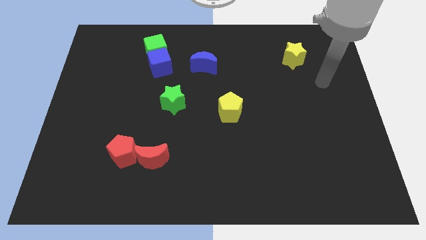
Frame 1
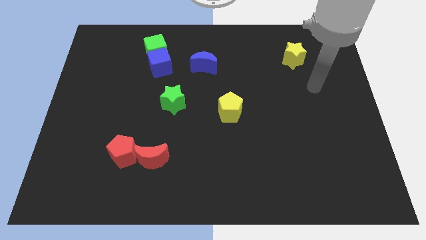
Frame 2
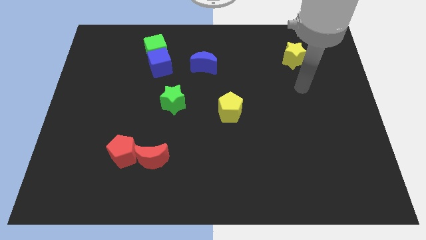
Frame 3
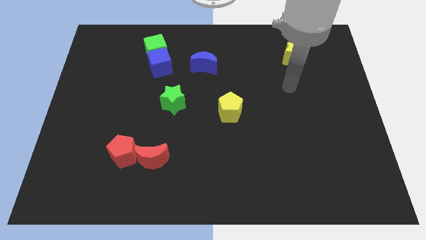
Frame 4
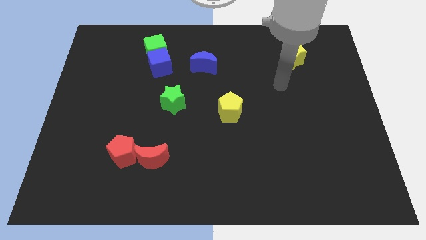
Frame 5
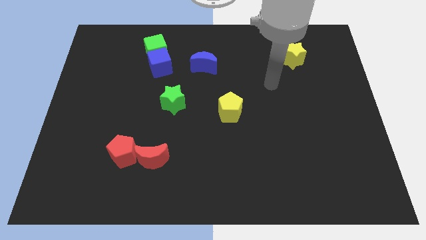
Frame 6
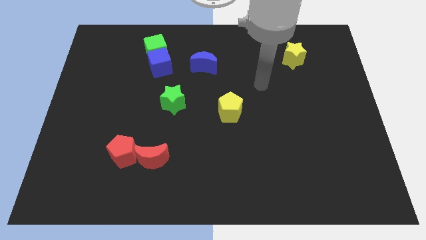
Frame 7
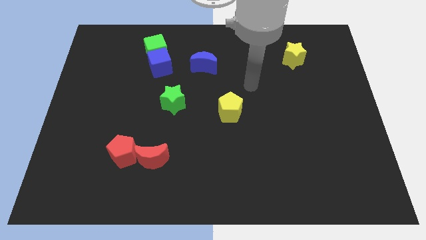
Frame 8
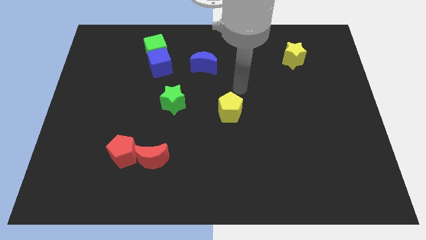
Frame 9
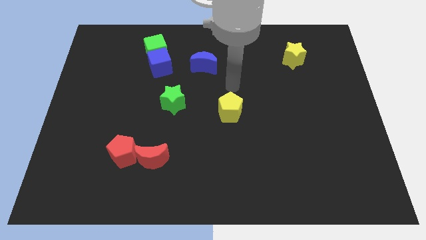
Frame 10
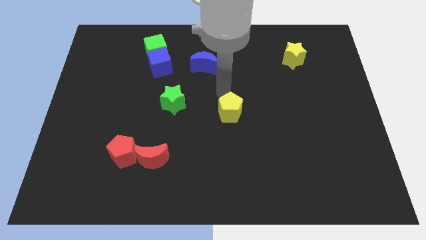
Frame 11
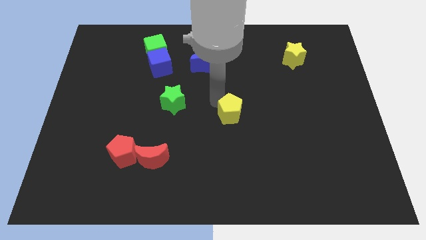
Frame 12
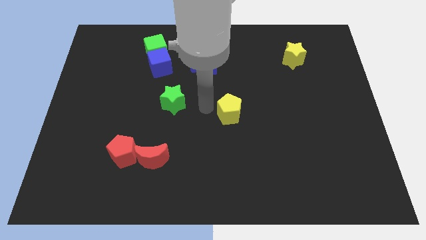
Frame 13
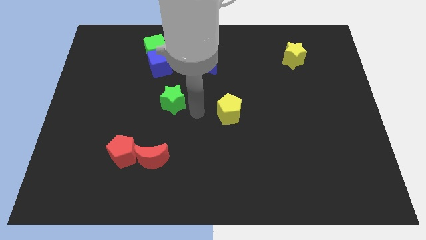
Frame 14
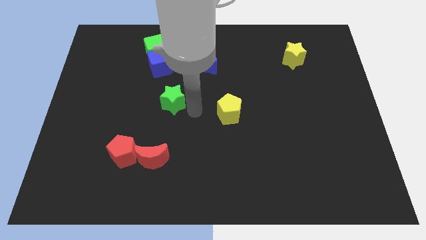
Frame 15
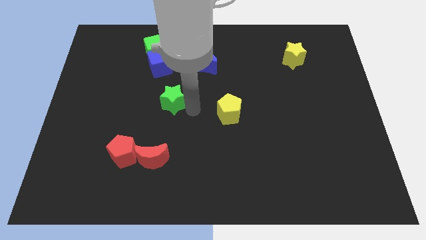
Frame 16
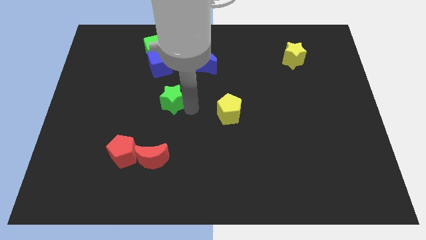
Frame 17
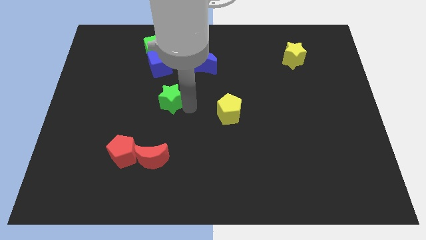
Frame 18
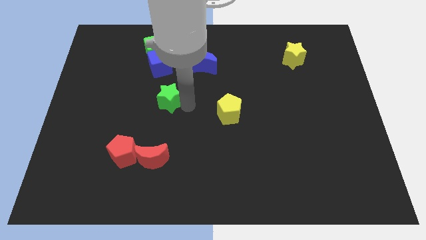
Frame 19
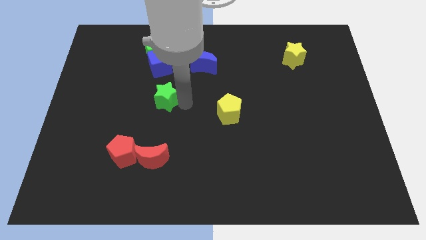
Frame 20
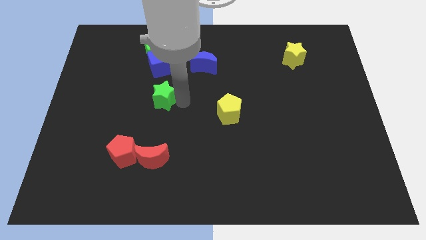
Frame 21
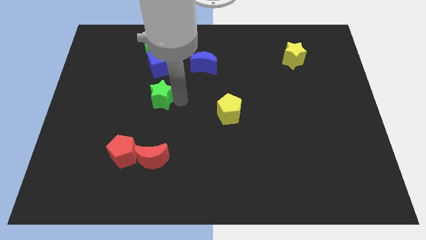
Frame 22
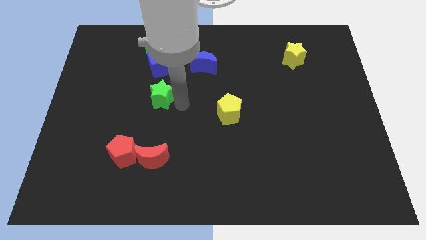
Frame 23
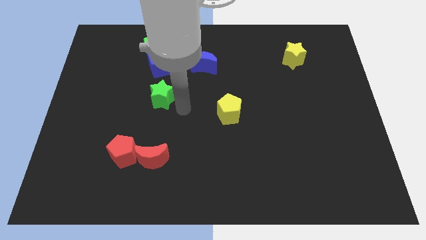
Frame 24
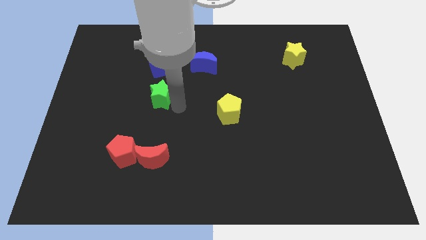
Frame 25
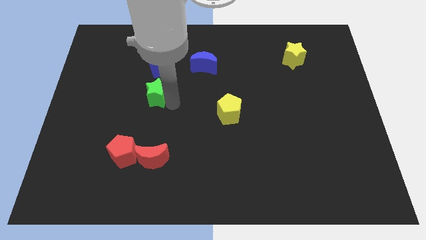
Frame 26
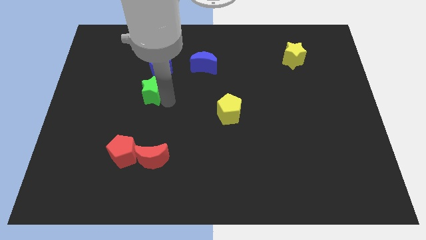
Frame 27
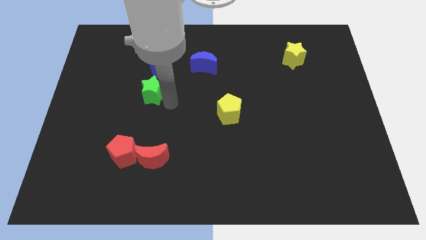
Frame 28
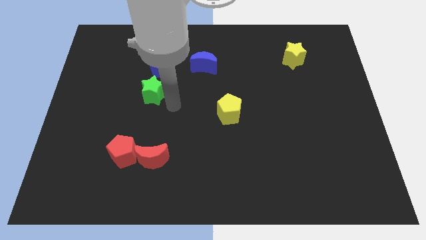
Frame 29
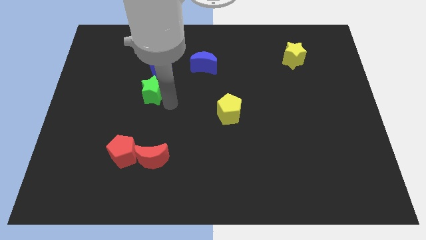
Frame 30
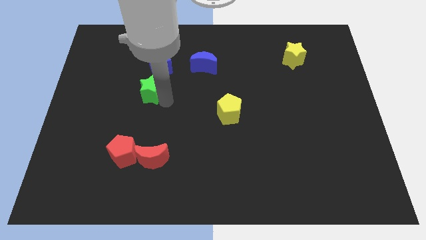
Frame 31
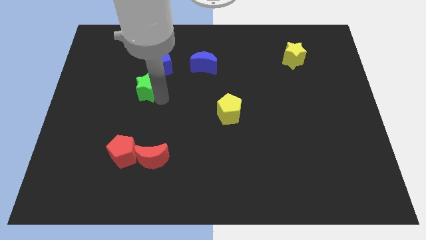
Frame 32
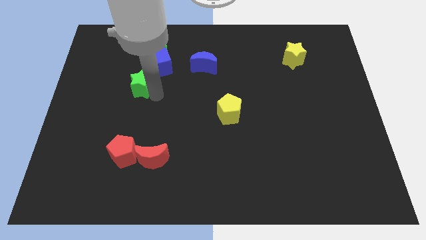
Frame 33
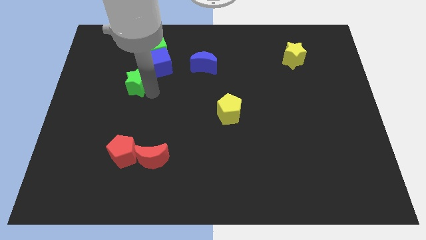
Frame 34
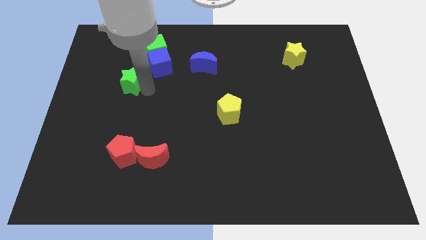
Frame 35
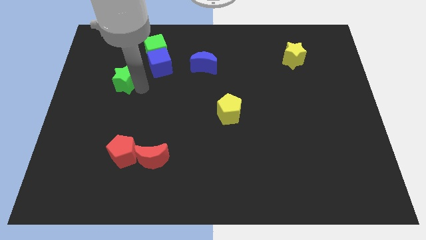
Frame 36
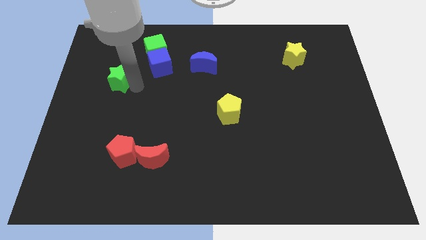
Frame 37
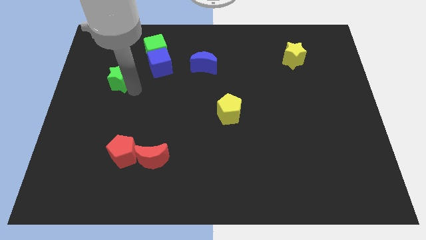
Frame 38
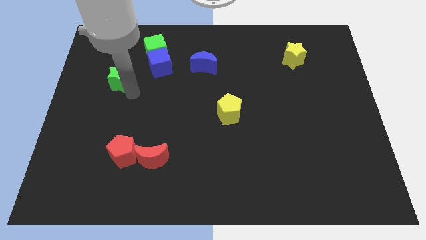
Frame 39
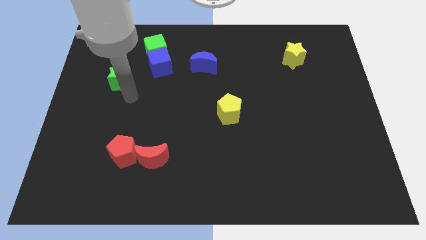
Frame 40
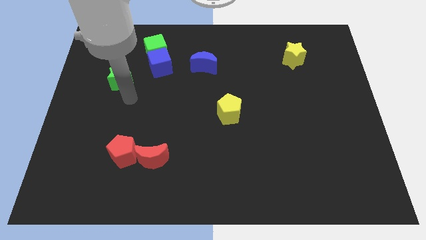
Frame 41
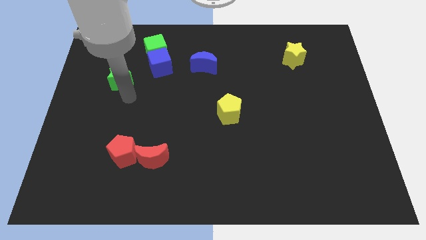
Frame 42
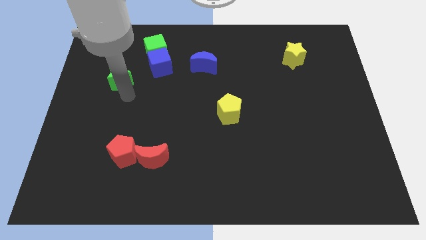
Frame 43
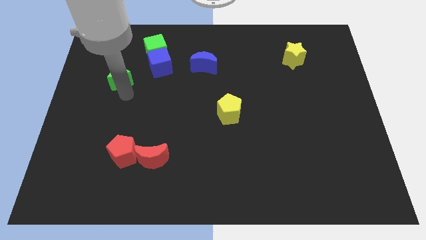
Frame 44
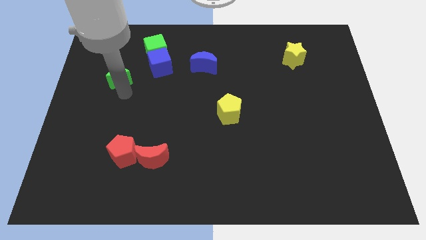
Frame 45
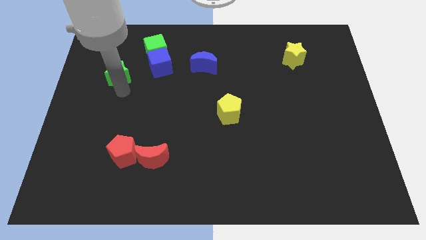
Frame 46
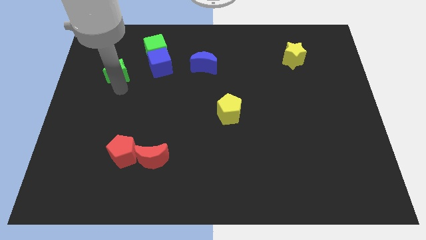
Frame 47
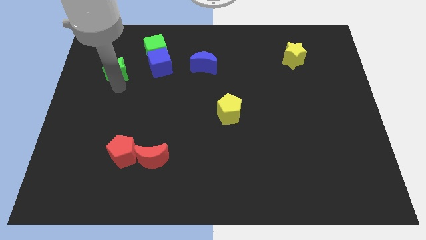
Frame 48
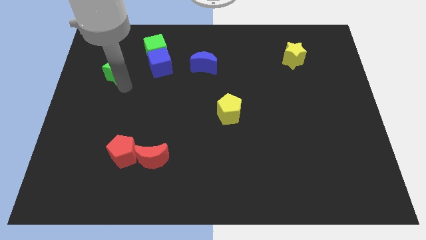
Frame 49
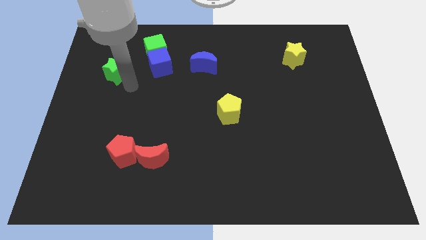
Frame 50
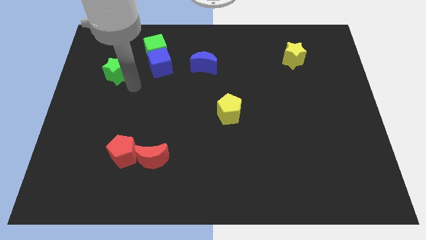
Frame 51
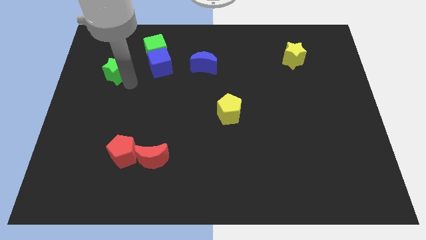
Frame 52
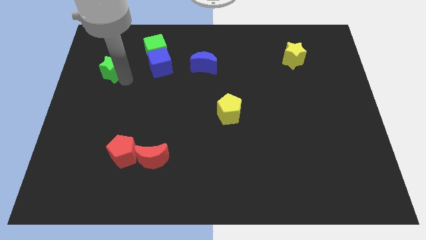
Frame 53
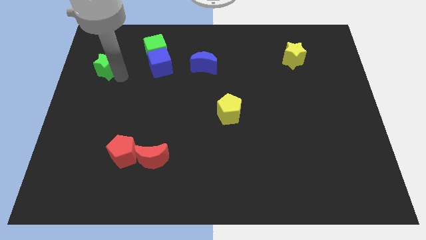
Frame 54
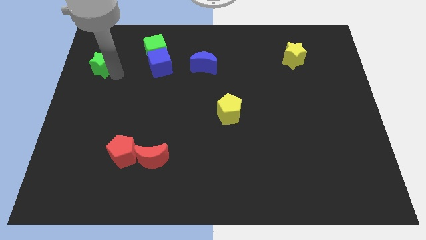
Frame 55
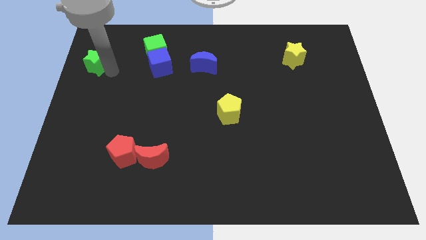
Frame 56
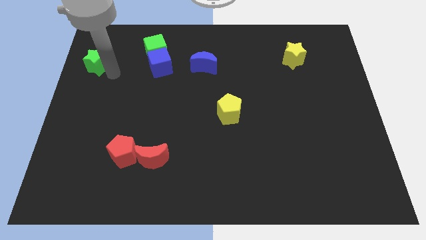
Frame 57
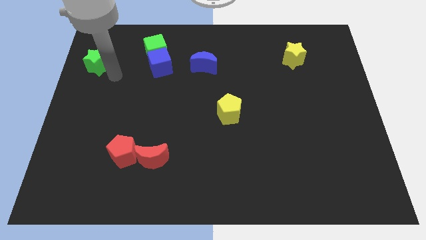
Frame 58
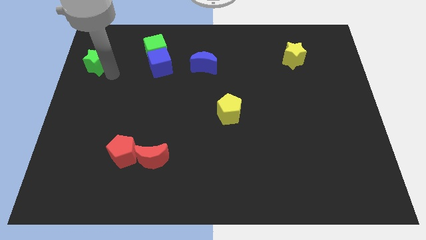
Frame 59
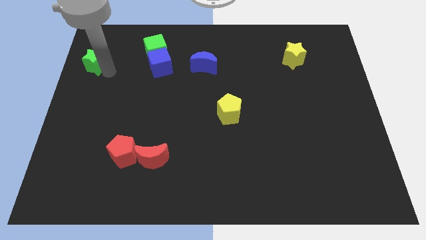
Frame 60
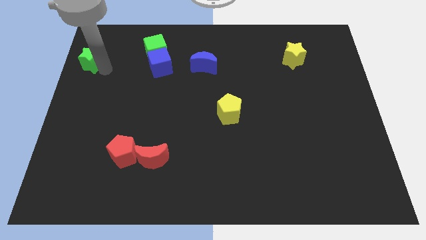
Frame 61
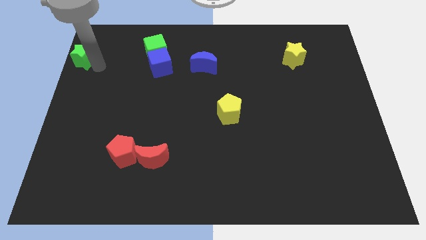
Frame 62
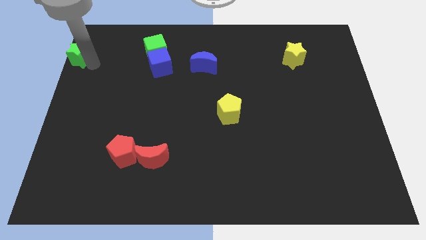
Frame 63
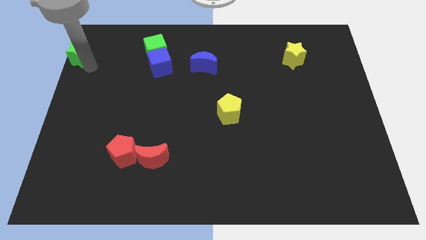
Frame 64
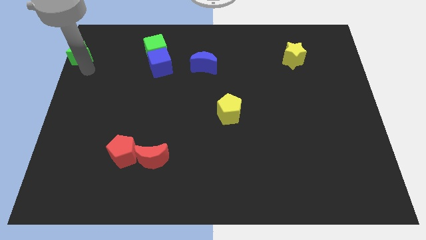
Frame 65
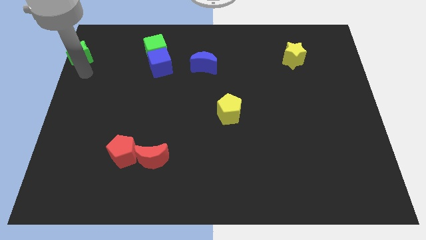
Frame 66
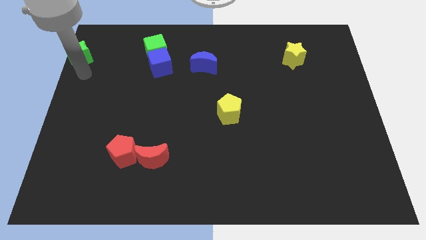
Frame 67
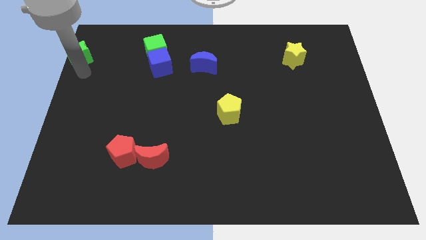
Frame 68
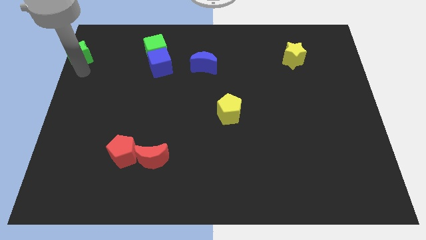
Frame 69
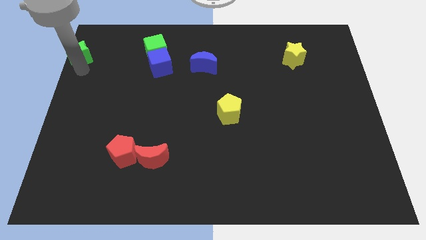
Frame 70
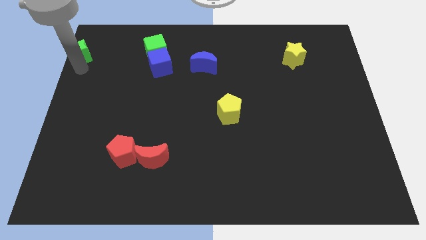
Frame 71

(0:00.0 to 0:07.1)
push the green star to the top left of the board
